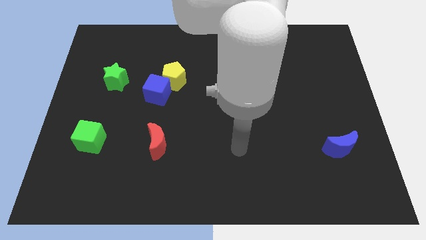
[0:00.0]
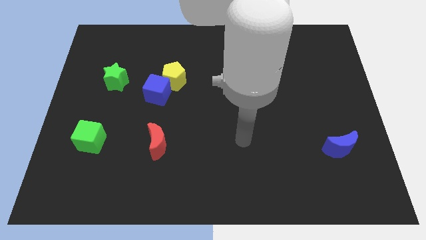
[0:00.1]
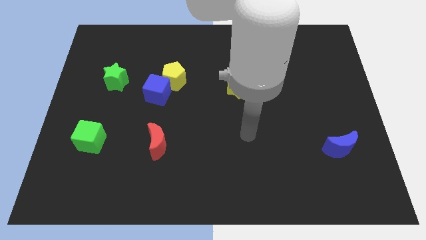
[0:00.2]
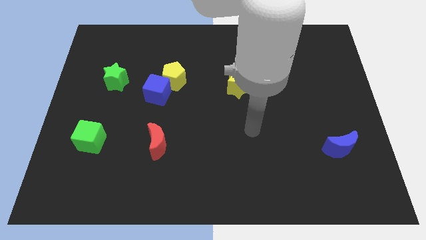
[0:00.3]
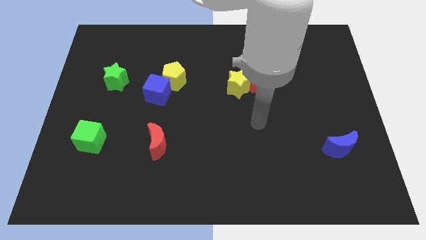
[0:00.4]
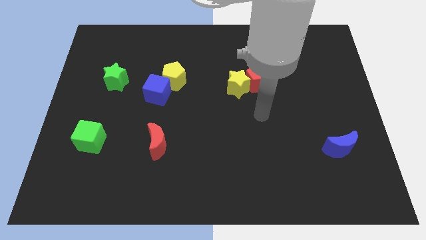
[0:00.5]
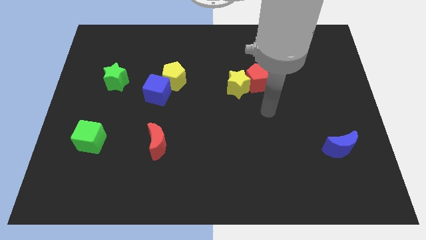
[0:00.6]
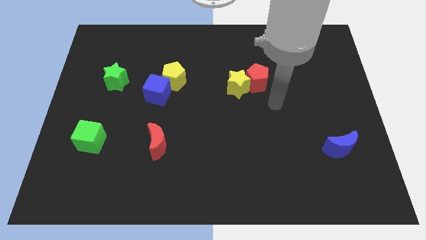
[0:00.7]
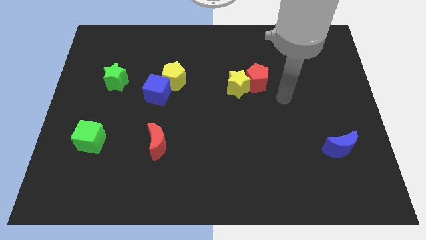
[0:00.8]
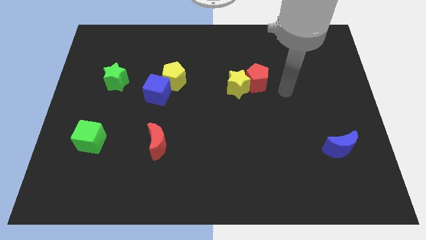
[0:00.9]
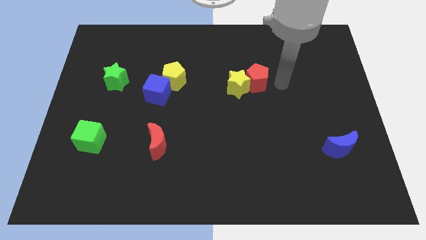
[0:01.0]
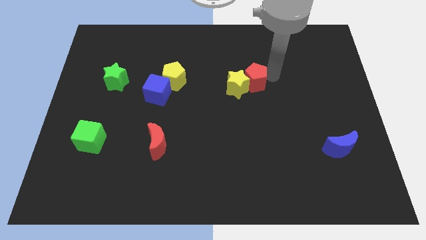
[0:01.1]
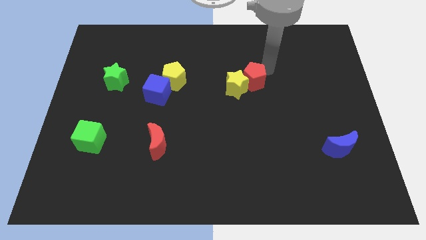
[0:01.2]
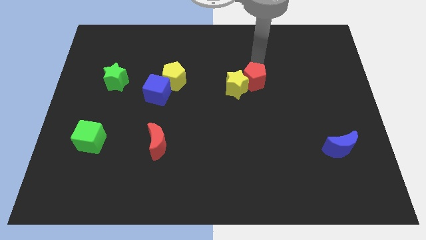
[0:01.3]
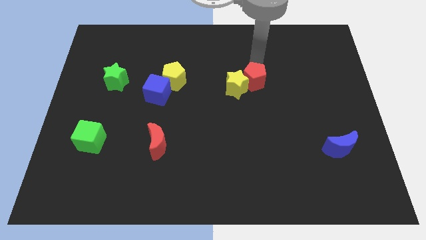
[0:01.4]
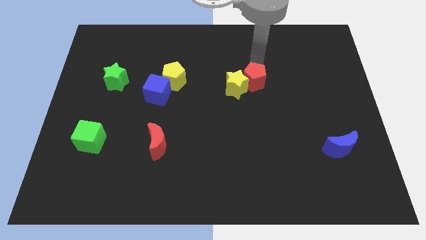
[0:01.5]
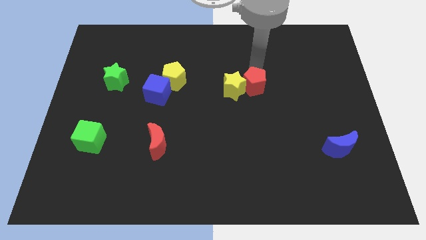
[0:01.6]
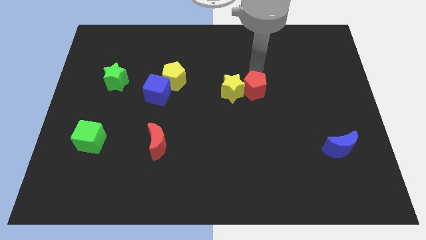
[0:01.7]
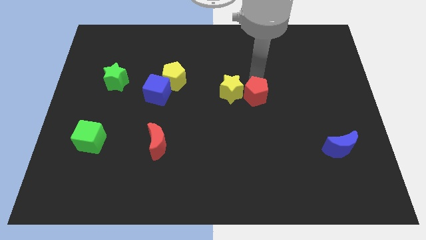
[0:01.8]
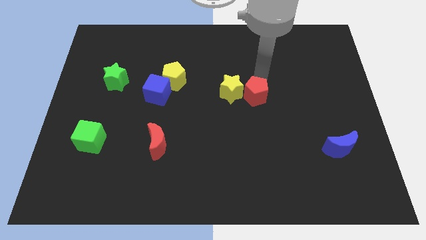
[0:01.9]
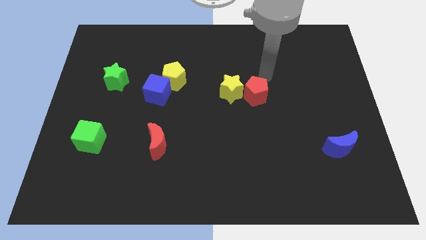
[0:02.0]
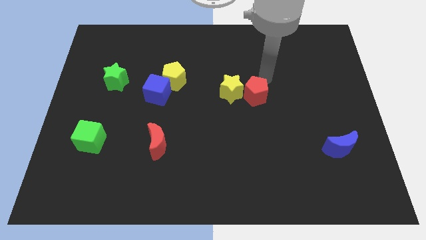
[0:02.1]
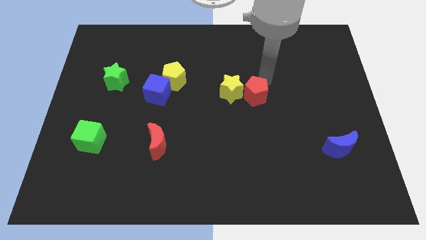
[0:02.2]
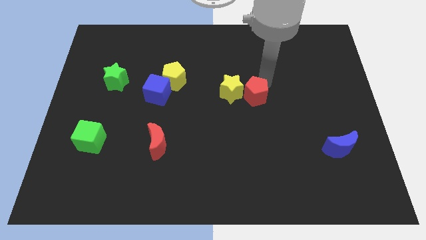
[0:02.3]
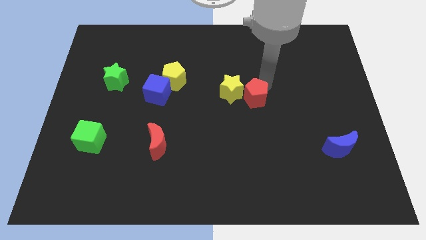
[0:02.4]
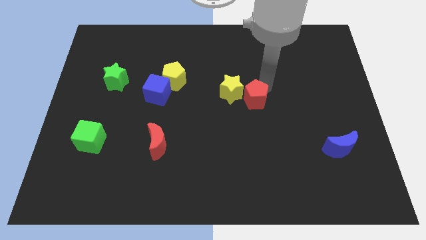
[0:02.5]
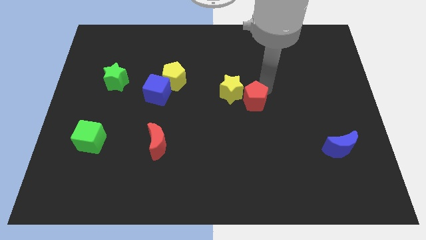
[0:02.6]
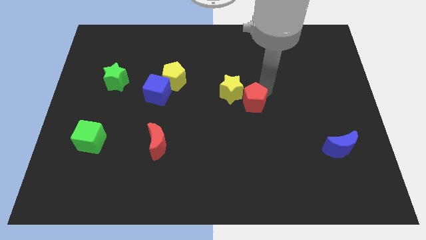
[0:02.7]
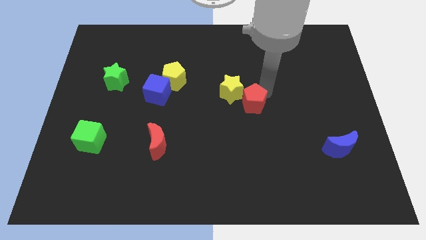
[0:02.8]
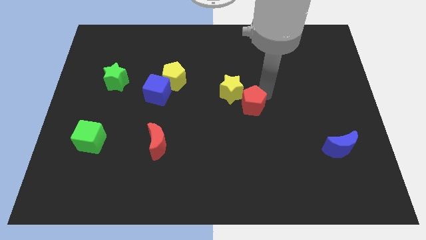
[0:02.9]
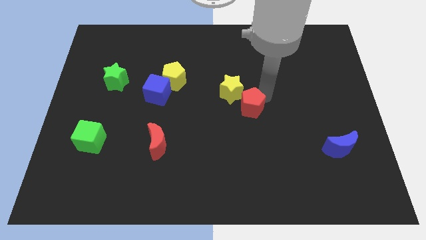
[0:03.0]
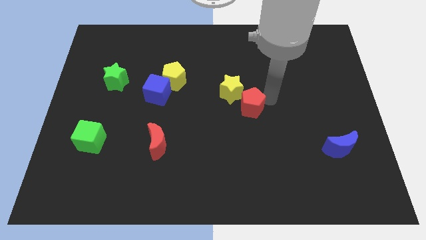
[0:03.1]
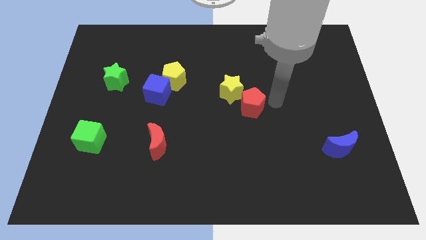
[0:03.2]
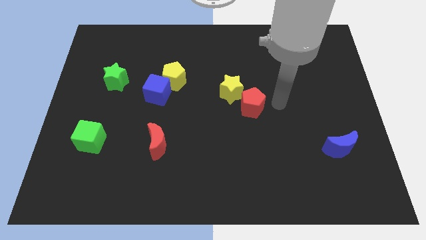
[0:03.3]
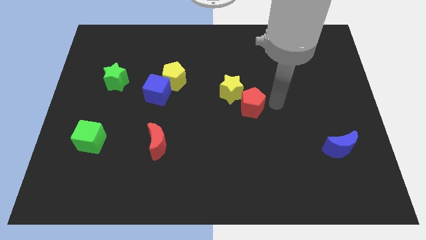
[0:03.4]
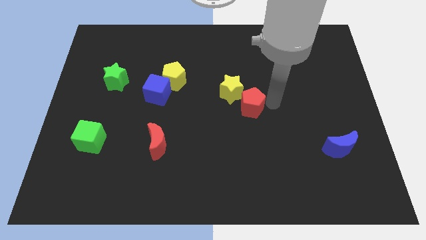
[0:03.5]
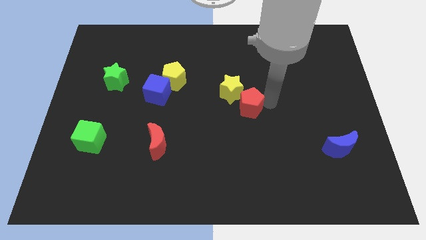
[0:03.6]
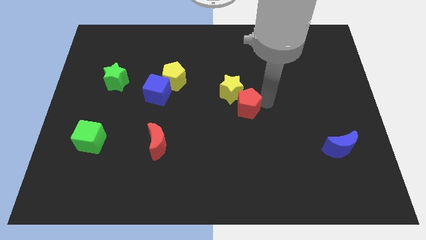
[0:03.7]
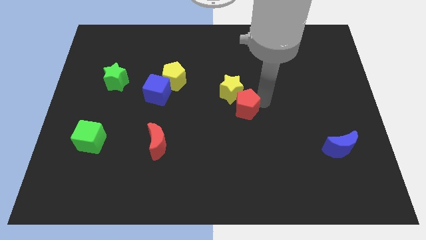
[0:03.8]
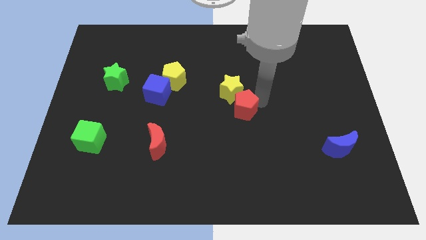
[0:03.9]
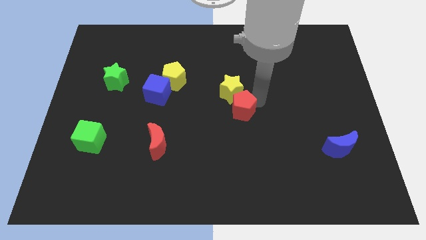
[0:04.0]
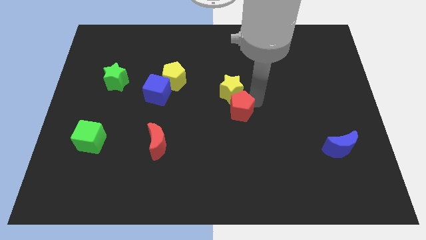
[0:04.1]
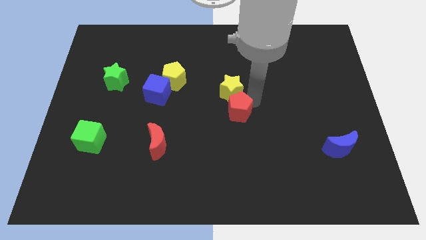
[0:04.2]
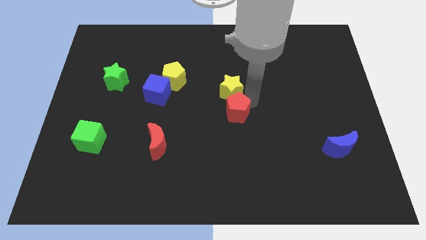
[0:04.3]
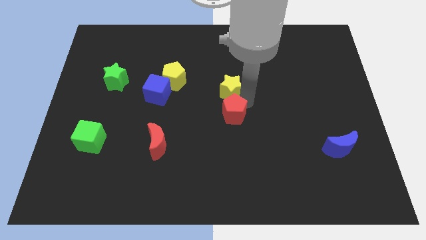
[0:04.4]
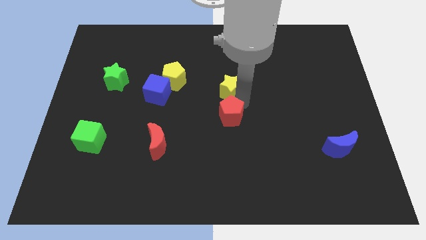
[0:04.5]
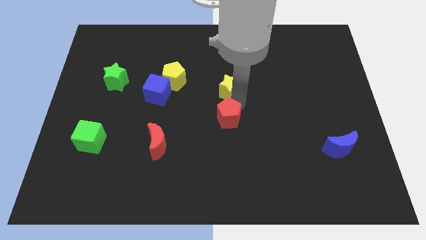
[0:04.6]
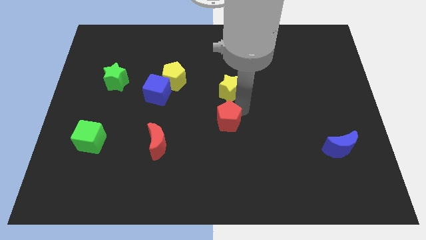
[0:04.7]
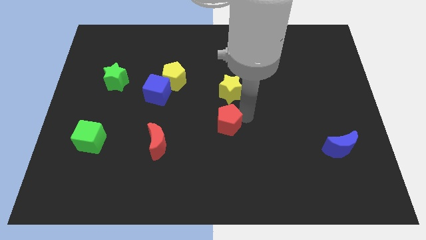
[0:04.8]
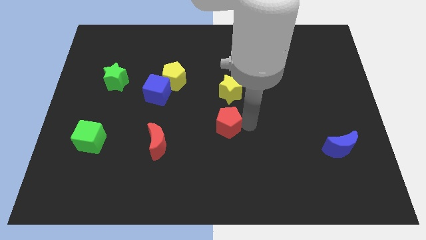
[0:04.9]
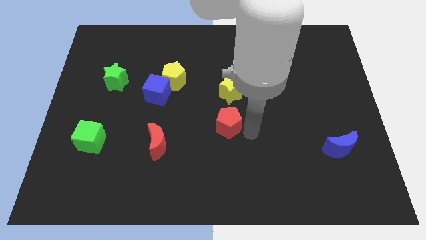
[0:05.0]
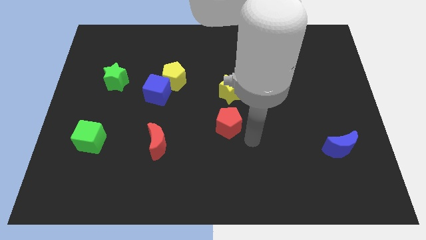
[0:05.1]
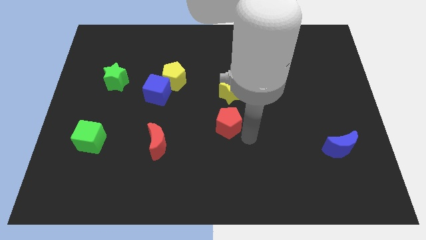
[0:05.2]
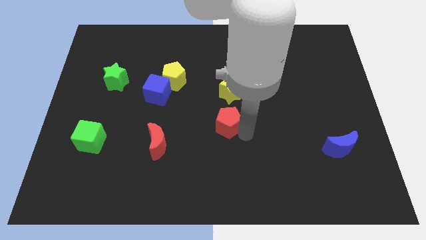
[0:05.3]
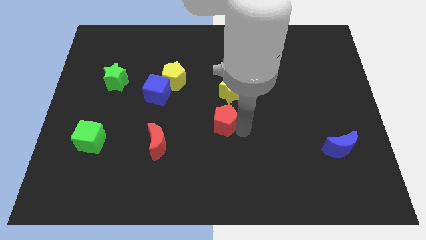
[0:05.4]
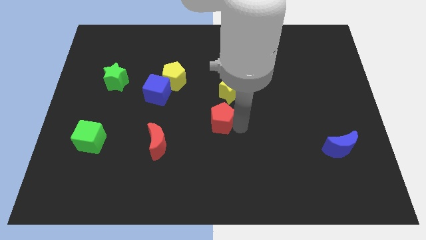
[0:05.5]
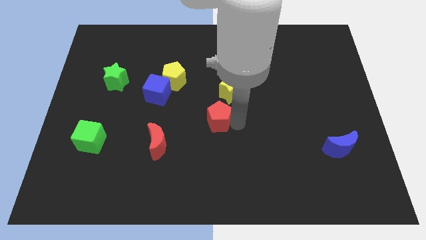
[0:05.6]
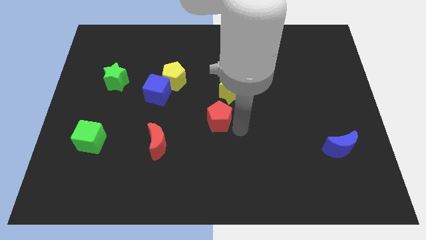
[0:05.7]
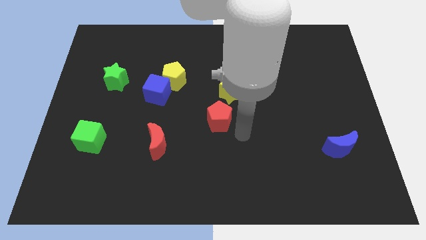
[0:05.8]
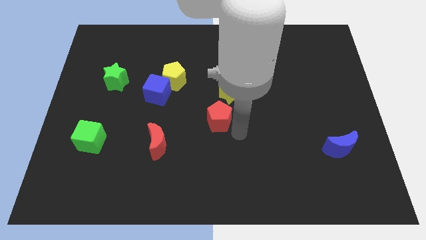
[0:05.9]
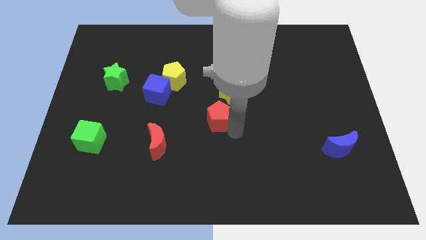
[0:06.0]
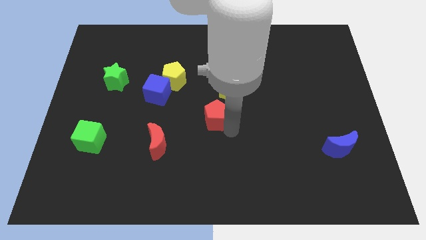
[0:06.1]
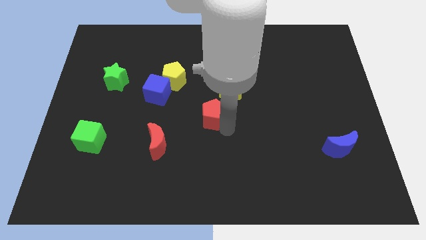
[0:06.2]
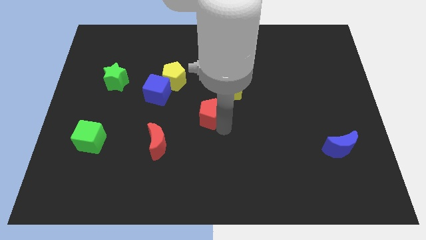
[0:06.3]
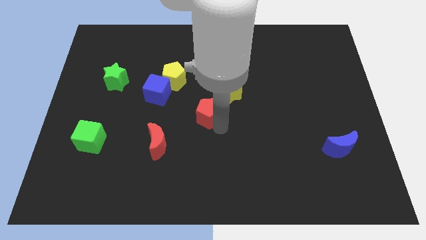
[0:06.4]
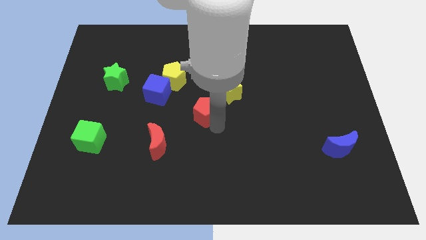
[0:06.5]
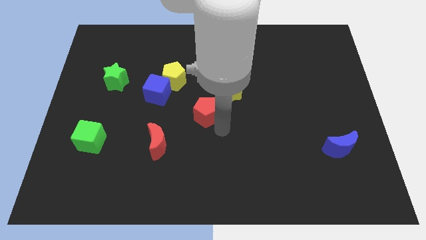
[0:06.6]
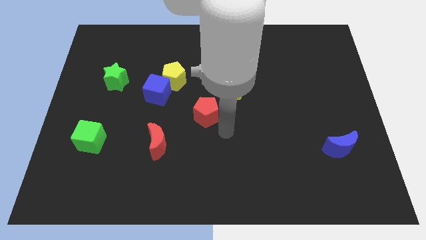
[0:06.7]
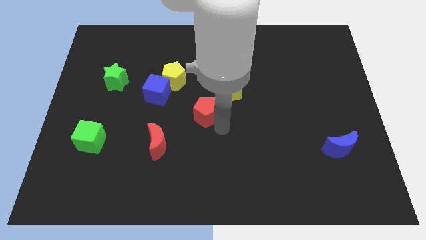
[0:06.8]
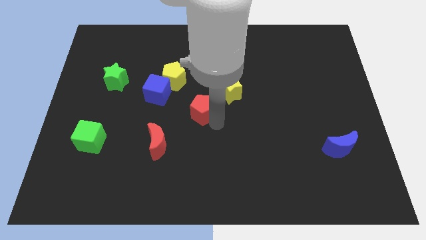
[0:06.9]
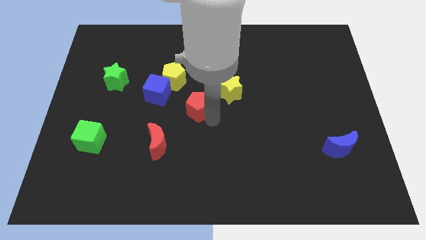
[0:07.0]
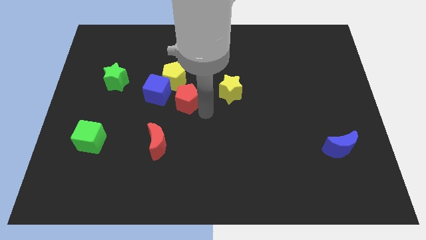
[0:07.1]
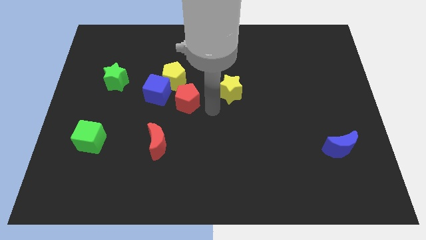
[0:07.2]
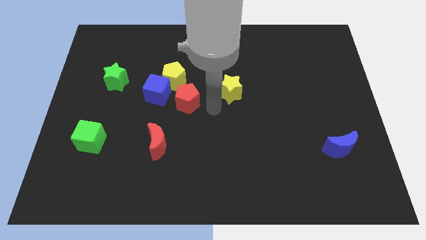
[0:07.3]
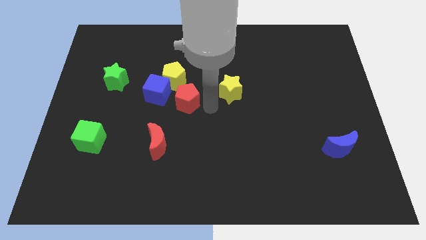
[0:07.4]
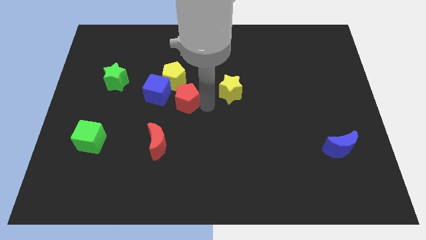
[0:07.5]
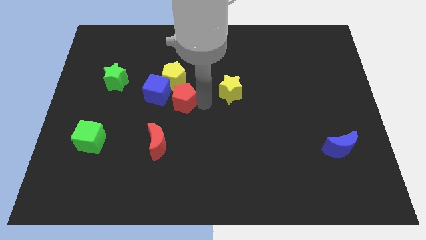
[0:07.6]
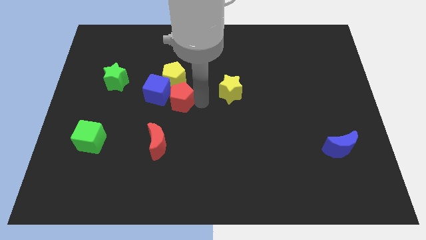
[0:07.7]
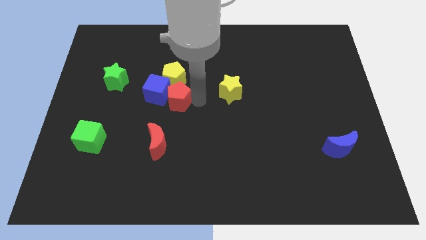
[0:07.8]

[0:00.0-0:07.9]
push the red pentagon to the blue cube
